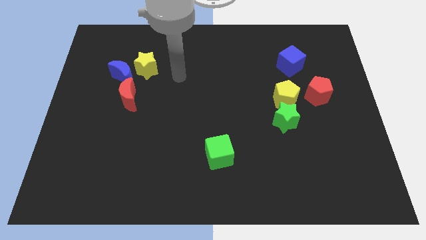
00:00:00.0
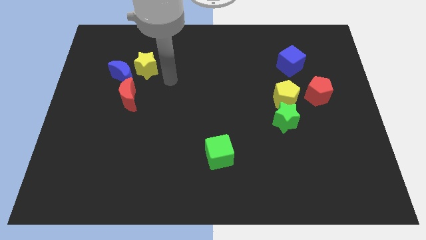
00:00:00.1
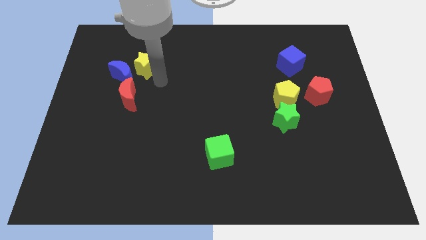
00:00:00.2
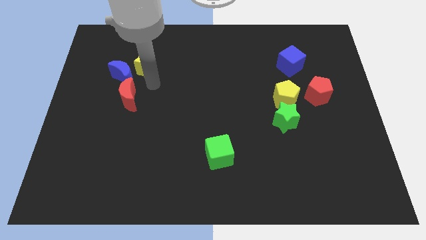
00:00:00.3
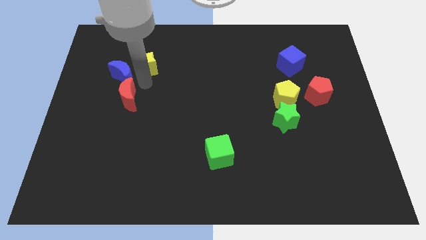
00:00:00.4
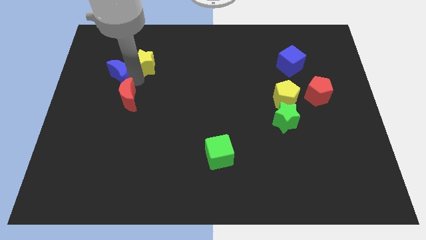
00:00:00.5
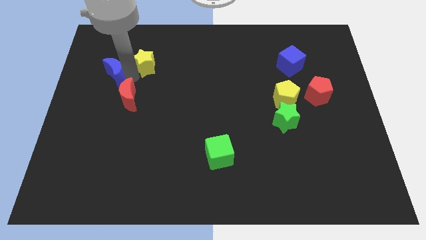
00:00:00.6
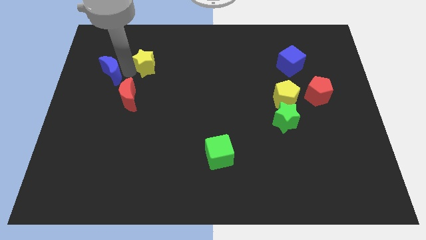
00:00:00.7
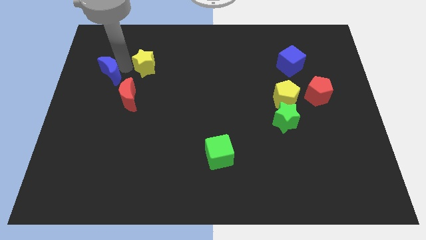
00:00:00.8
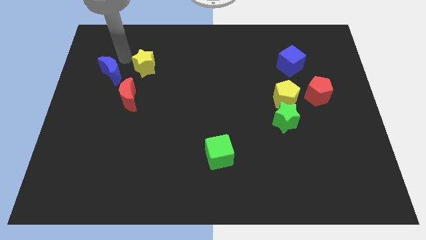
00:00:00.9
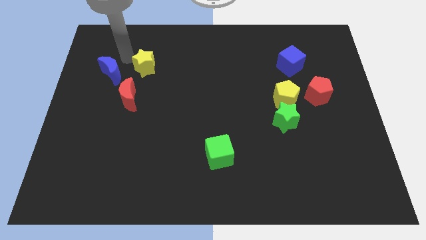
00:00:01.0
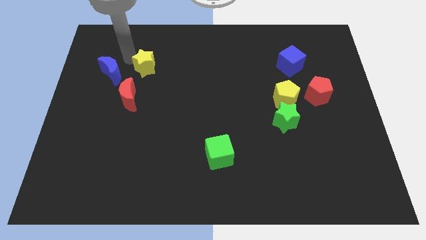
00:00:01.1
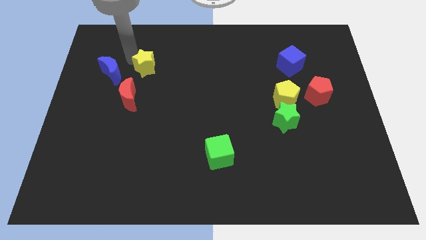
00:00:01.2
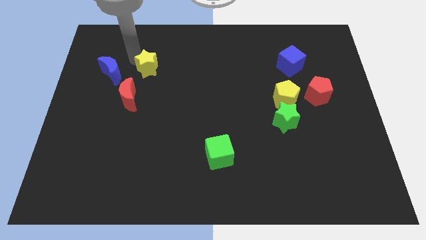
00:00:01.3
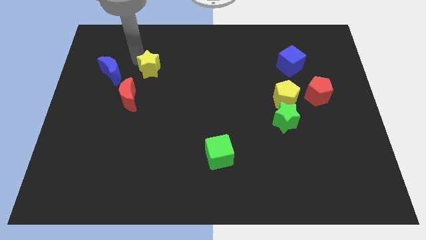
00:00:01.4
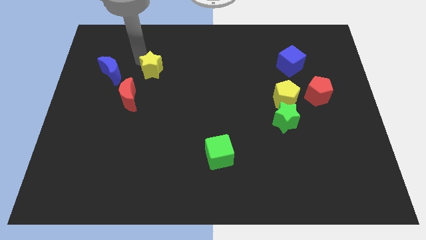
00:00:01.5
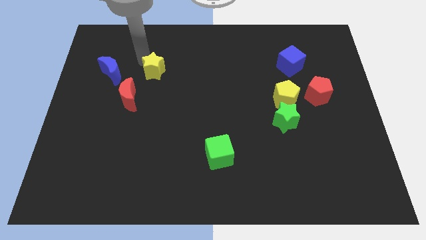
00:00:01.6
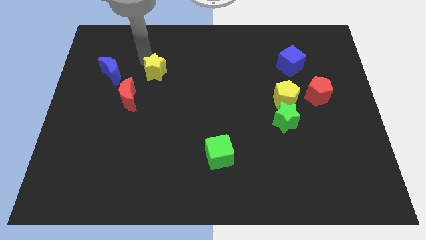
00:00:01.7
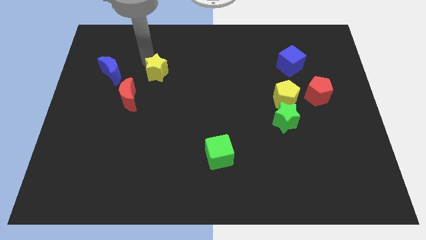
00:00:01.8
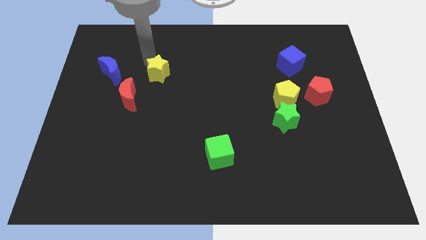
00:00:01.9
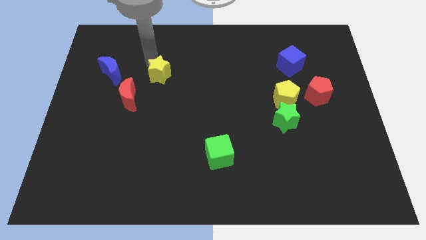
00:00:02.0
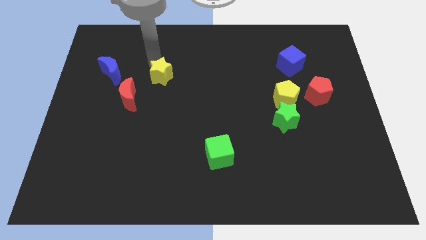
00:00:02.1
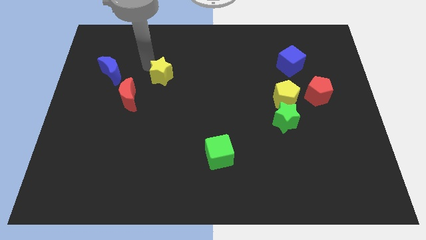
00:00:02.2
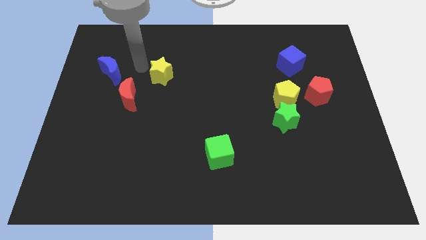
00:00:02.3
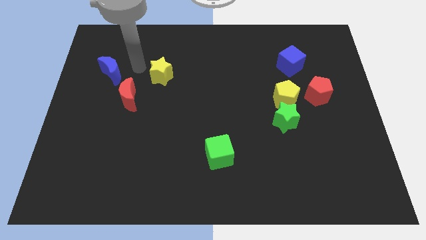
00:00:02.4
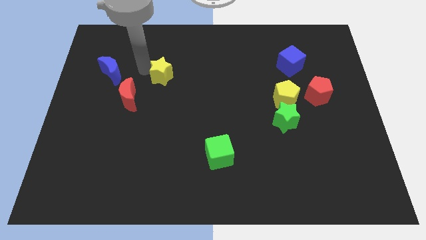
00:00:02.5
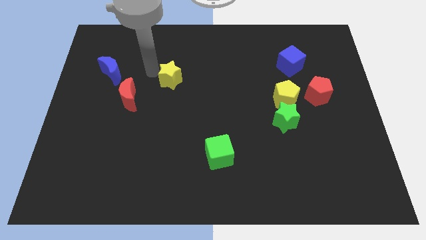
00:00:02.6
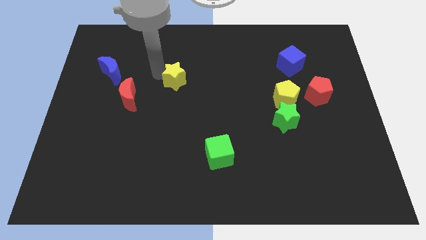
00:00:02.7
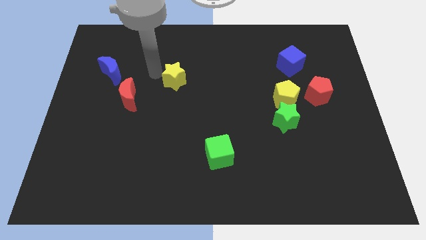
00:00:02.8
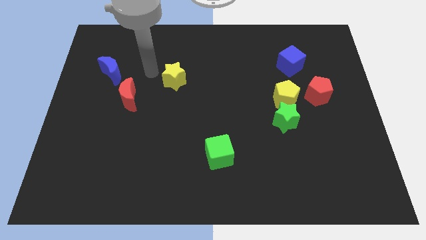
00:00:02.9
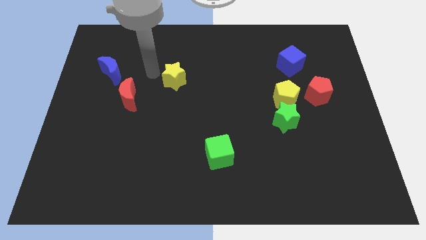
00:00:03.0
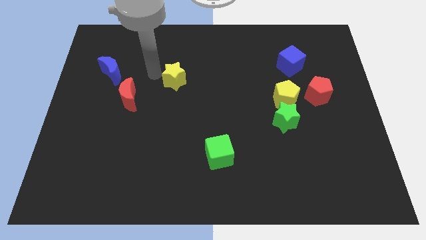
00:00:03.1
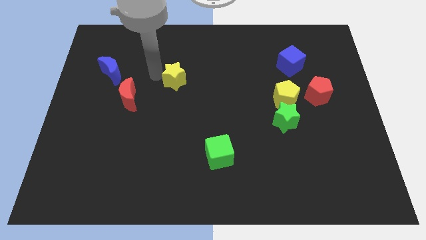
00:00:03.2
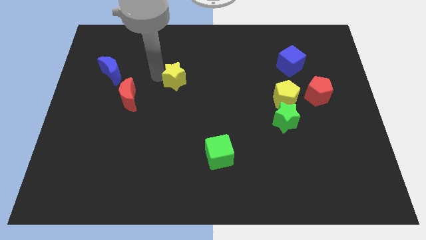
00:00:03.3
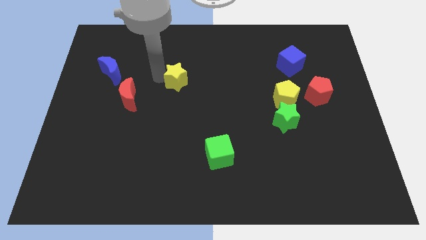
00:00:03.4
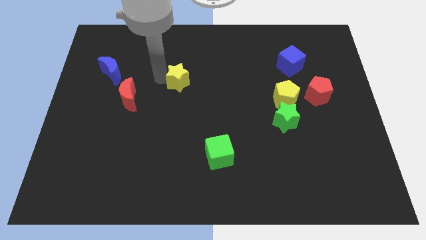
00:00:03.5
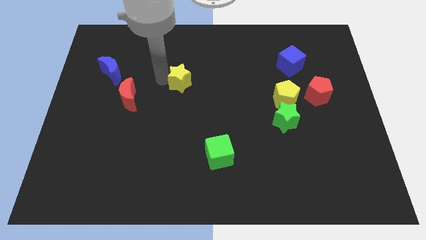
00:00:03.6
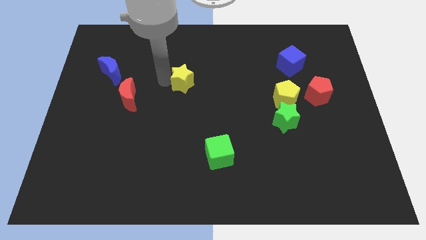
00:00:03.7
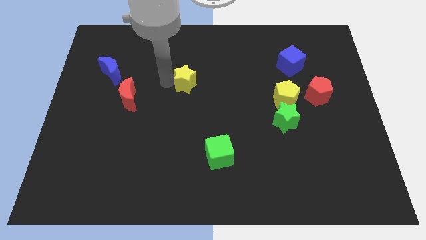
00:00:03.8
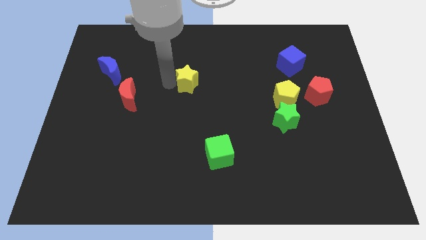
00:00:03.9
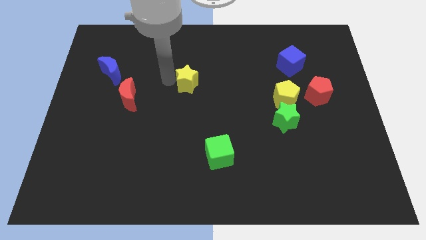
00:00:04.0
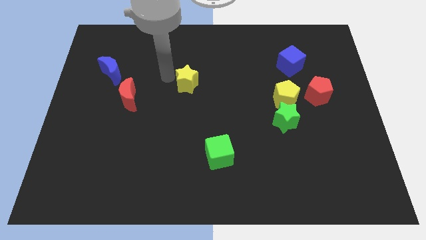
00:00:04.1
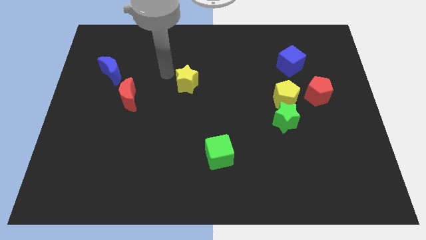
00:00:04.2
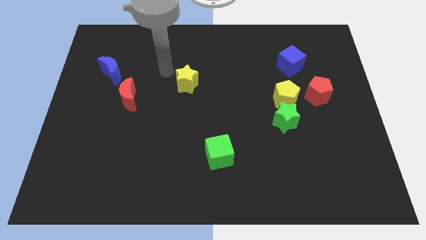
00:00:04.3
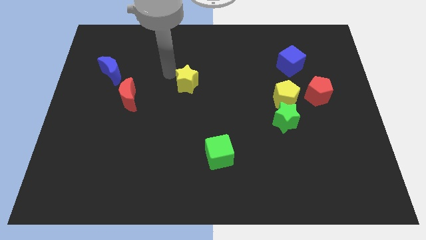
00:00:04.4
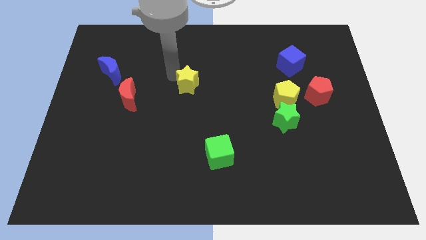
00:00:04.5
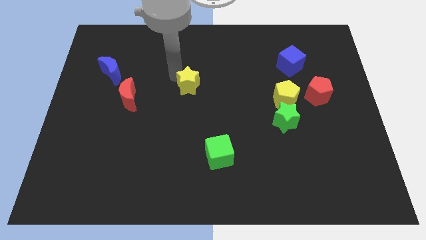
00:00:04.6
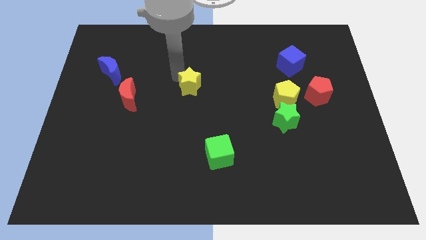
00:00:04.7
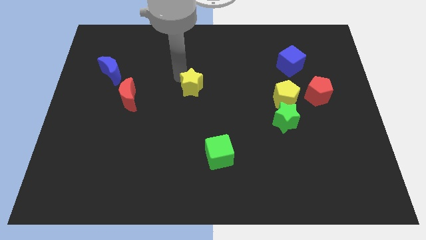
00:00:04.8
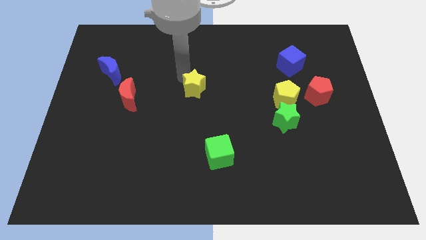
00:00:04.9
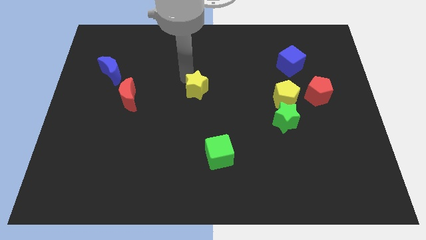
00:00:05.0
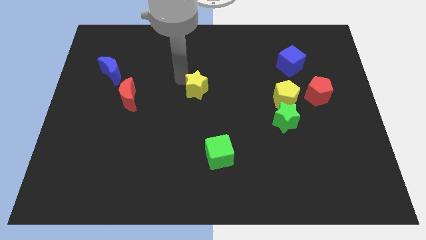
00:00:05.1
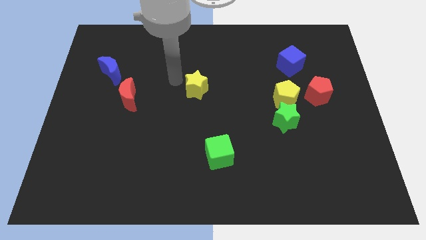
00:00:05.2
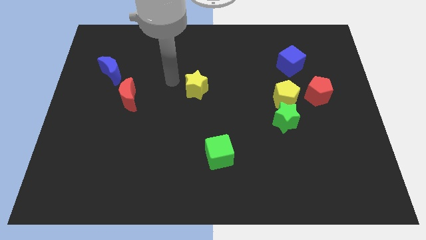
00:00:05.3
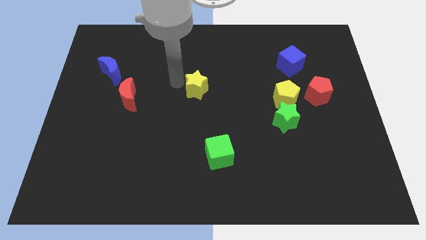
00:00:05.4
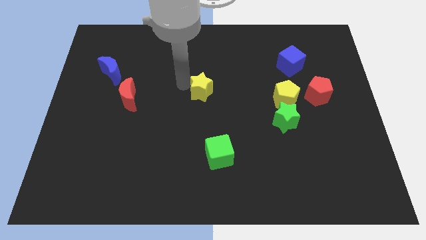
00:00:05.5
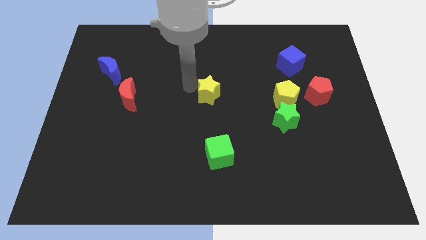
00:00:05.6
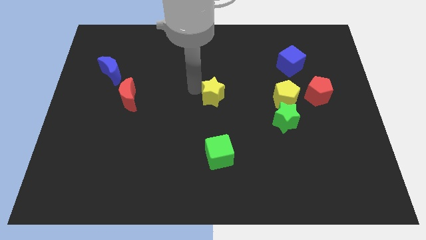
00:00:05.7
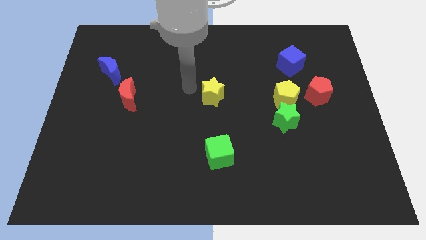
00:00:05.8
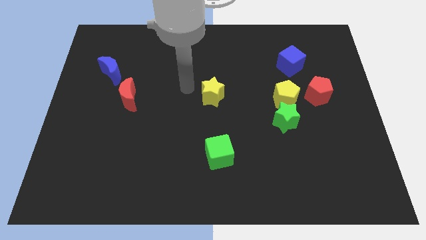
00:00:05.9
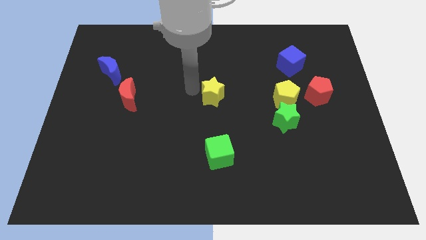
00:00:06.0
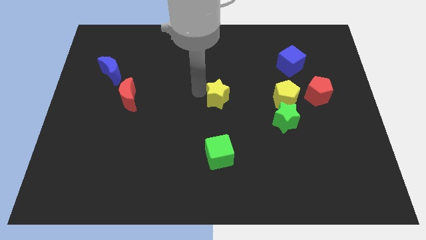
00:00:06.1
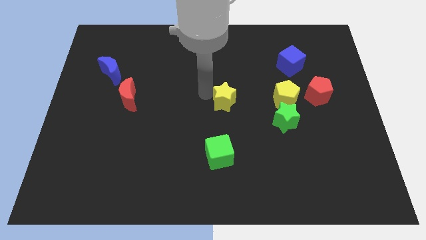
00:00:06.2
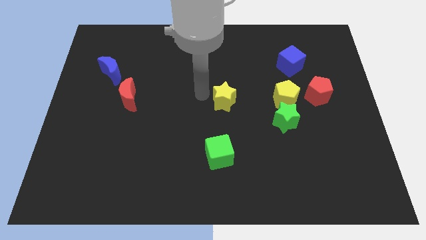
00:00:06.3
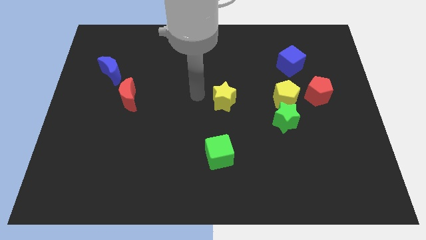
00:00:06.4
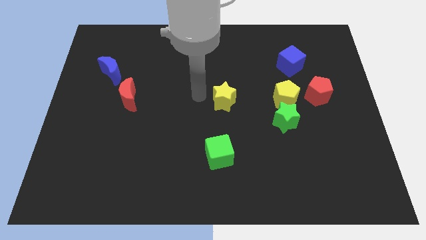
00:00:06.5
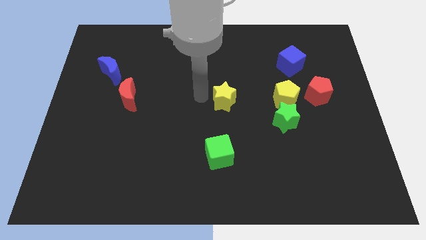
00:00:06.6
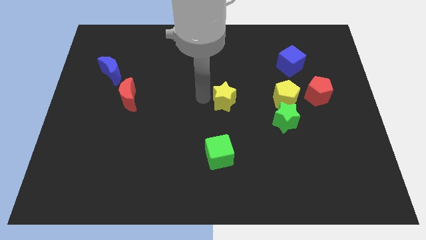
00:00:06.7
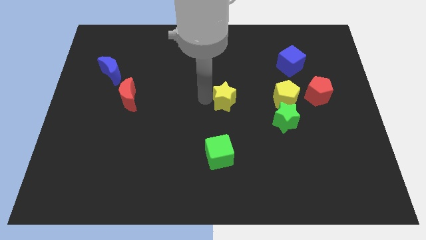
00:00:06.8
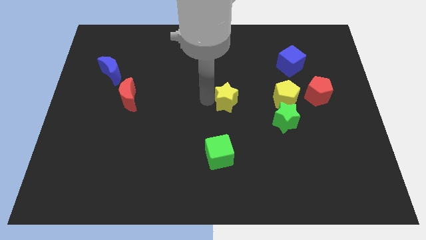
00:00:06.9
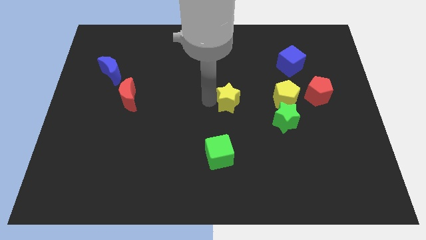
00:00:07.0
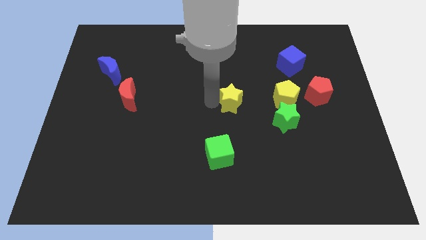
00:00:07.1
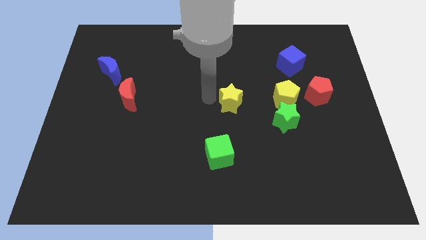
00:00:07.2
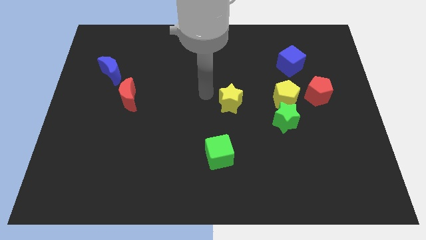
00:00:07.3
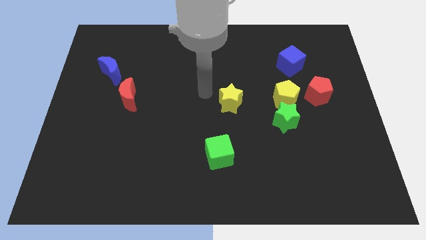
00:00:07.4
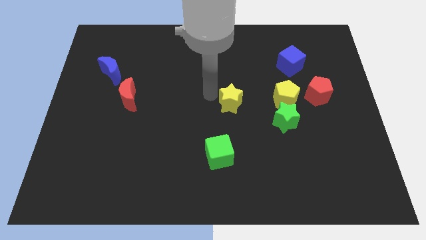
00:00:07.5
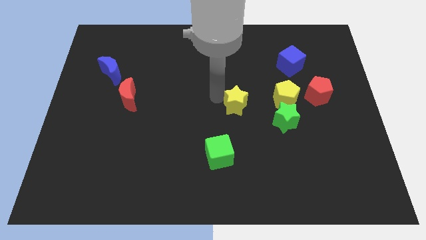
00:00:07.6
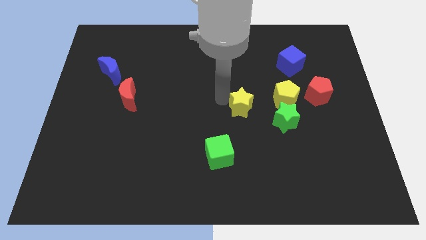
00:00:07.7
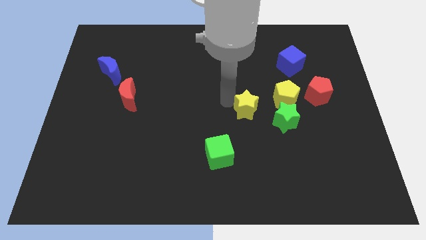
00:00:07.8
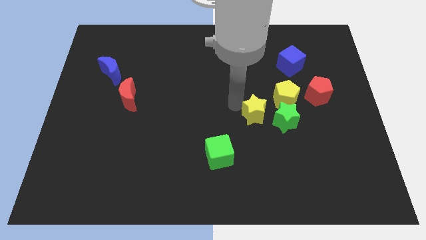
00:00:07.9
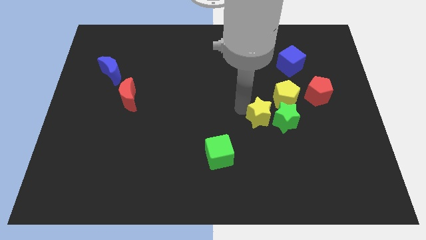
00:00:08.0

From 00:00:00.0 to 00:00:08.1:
put the yellow star towards the green star
